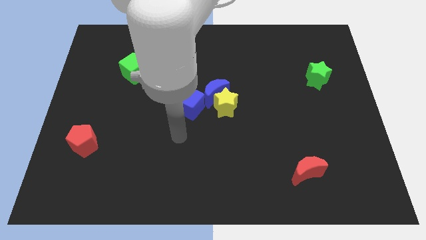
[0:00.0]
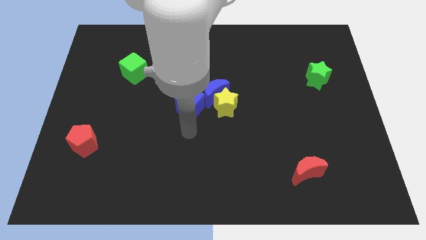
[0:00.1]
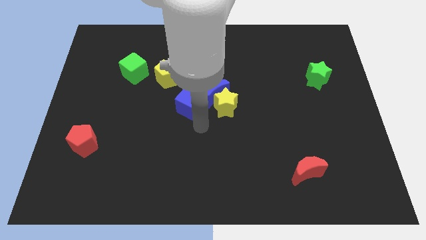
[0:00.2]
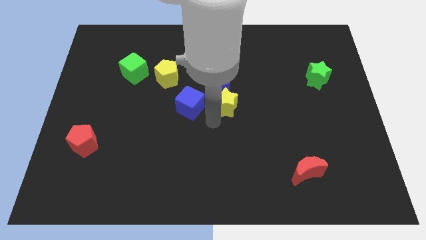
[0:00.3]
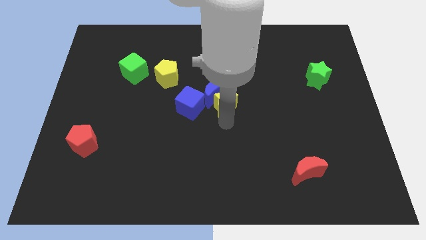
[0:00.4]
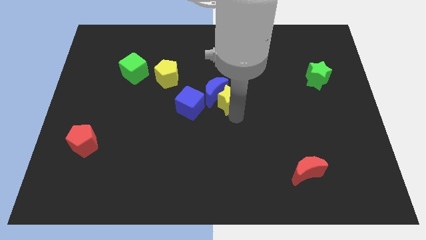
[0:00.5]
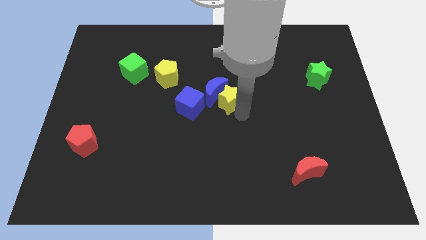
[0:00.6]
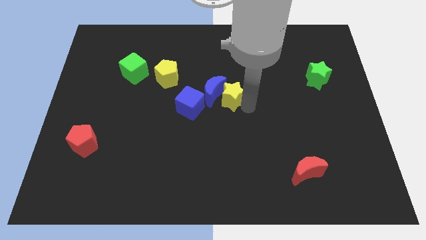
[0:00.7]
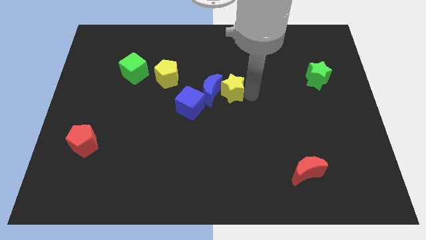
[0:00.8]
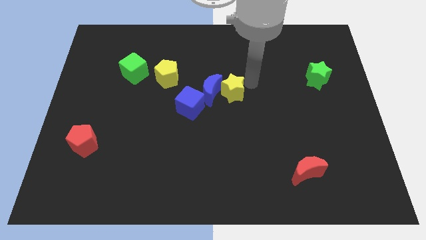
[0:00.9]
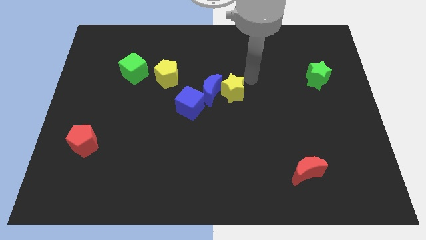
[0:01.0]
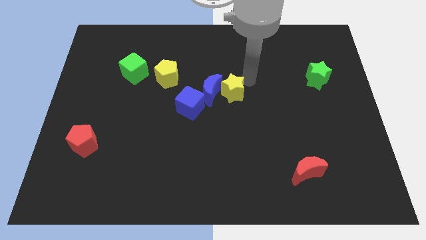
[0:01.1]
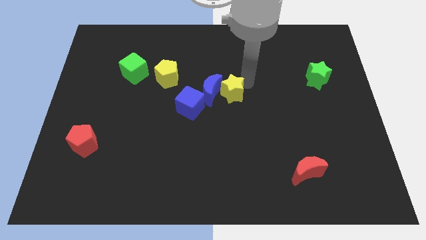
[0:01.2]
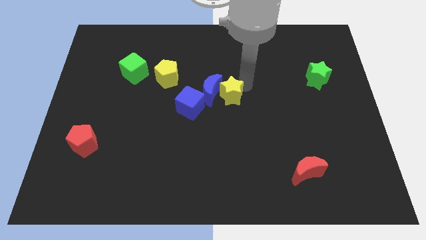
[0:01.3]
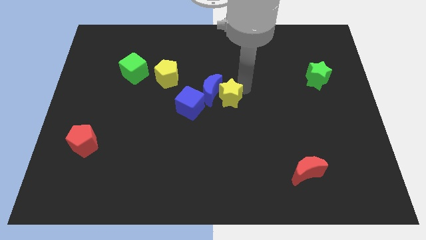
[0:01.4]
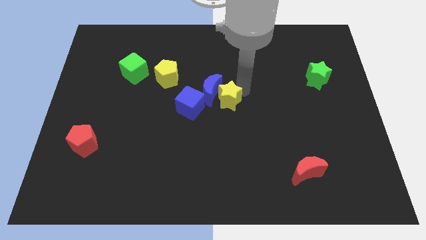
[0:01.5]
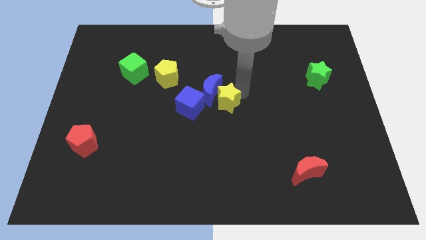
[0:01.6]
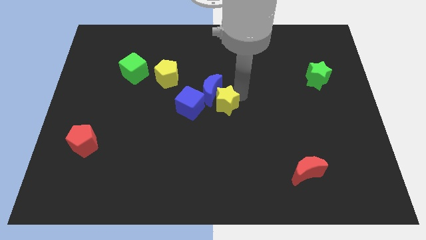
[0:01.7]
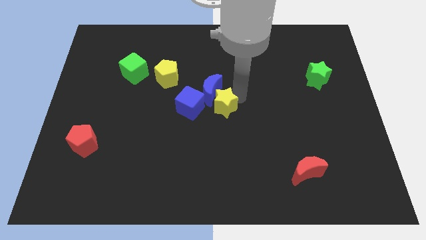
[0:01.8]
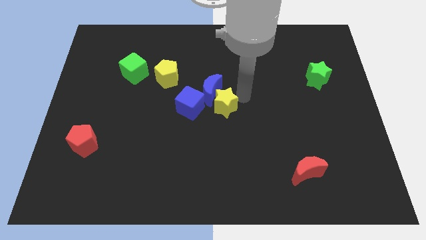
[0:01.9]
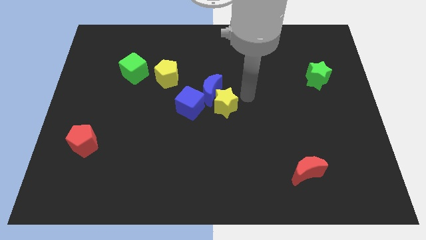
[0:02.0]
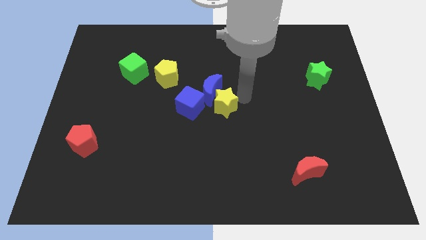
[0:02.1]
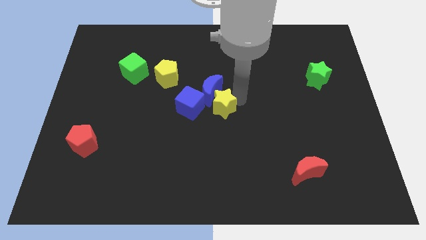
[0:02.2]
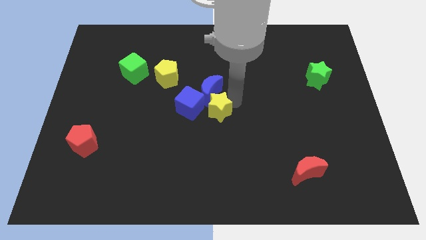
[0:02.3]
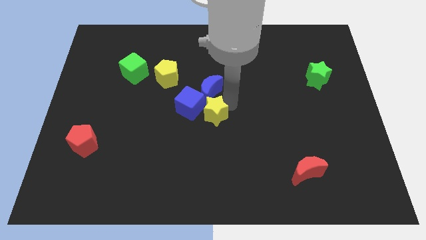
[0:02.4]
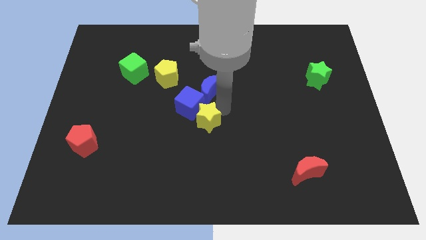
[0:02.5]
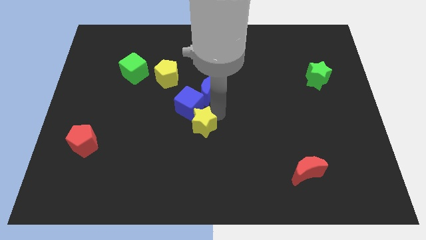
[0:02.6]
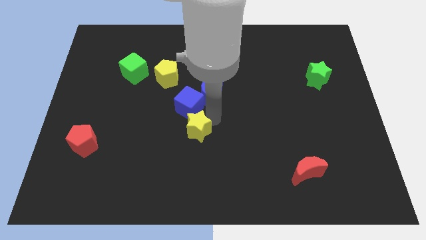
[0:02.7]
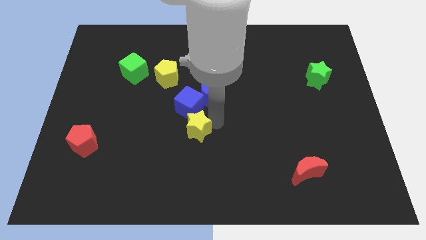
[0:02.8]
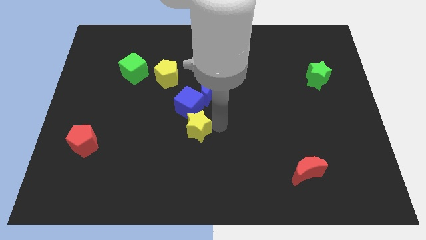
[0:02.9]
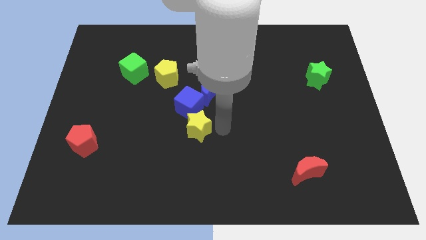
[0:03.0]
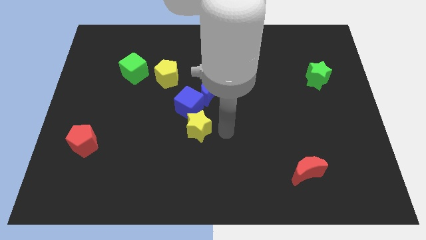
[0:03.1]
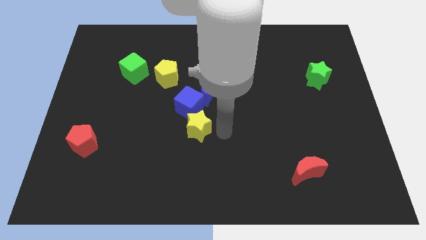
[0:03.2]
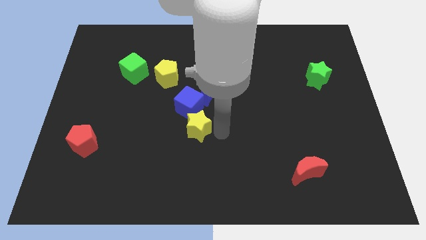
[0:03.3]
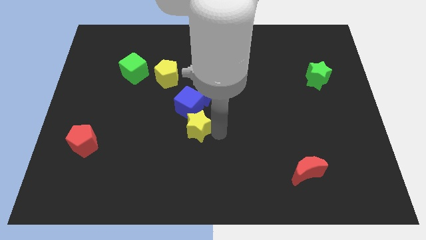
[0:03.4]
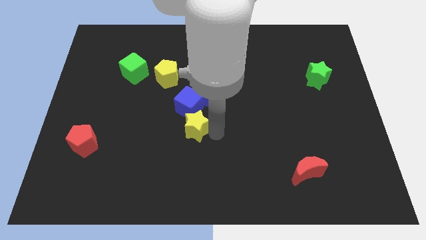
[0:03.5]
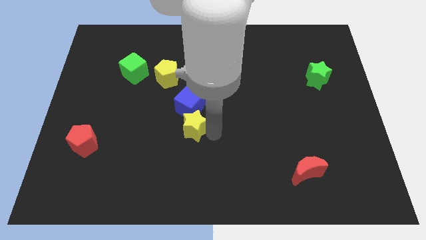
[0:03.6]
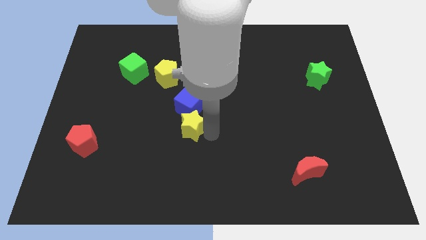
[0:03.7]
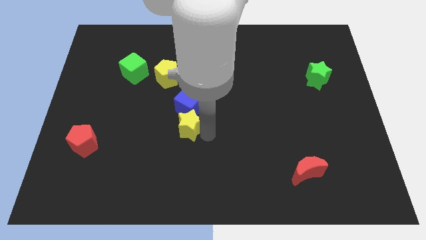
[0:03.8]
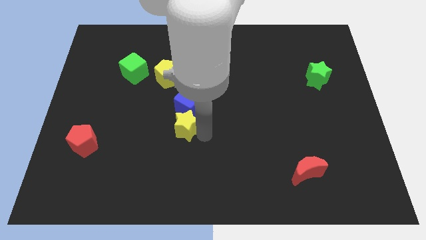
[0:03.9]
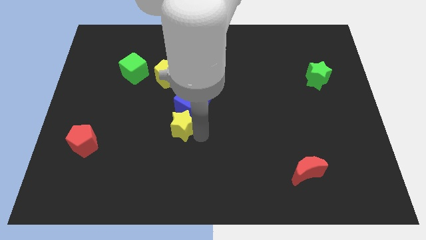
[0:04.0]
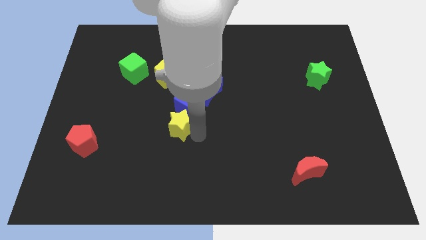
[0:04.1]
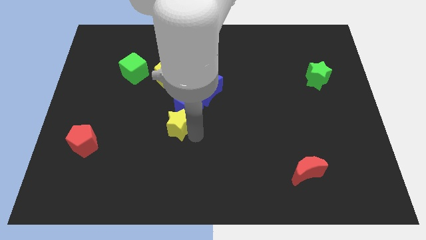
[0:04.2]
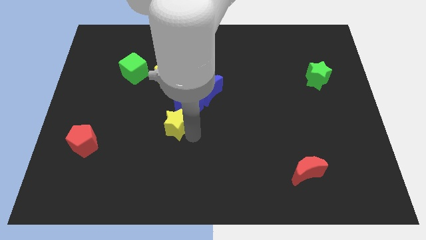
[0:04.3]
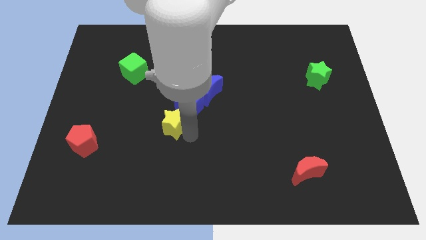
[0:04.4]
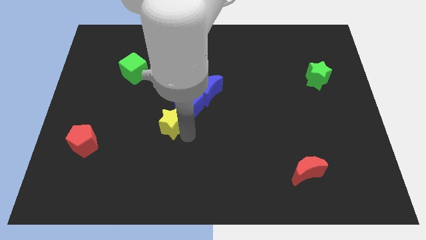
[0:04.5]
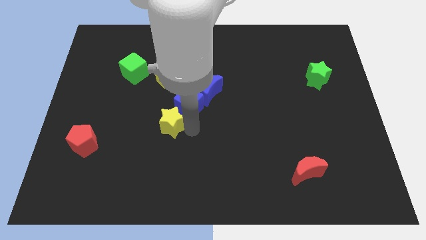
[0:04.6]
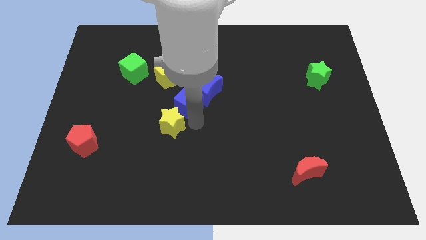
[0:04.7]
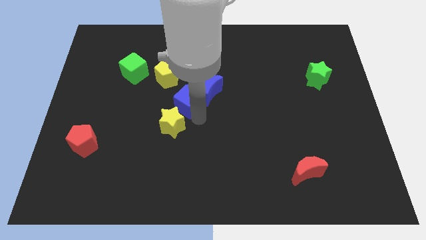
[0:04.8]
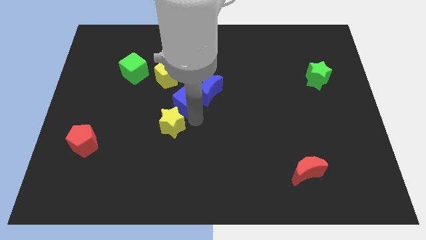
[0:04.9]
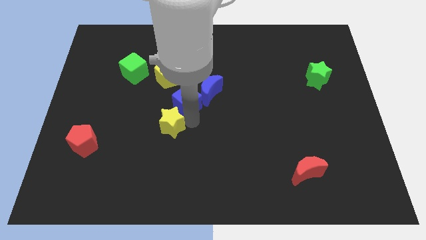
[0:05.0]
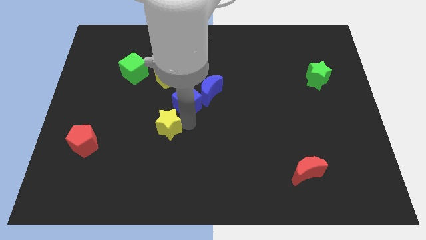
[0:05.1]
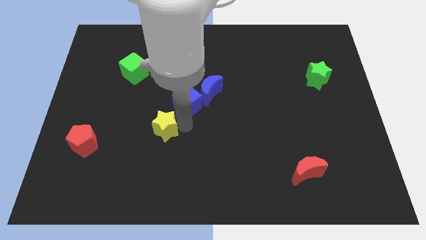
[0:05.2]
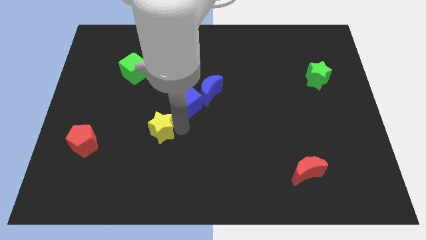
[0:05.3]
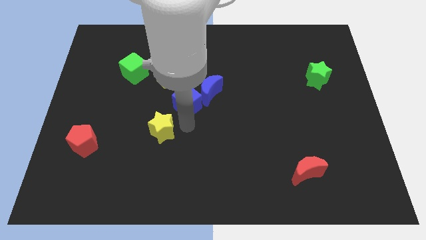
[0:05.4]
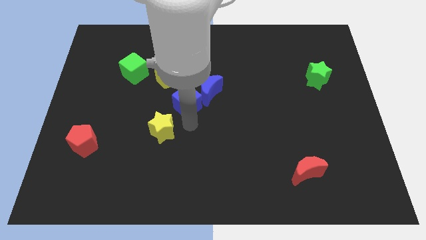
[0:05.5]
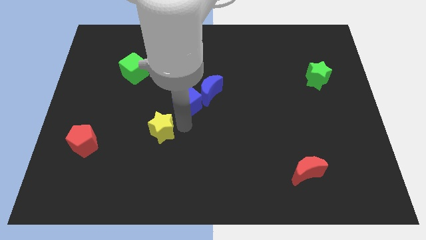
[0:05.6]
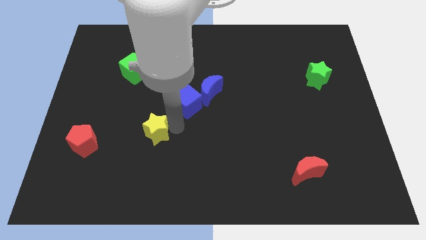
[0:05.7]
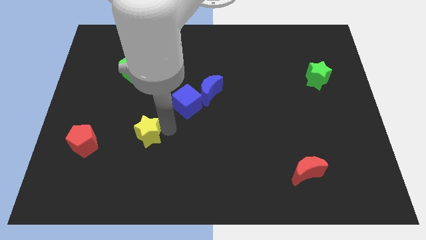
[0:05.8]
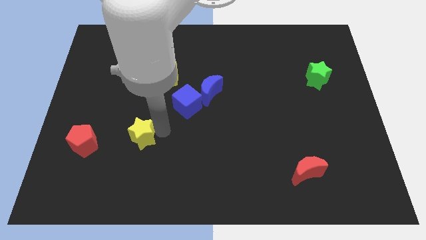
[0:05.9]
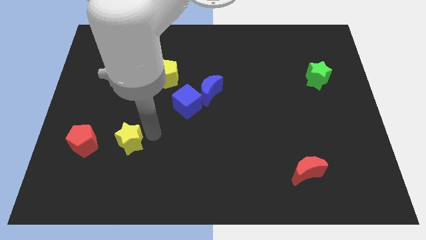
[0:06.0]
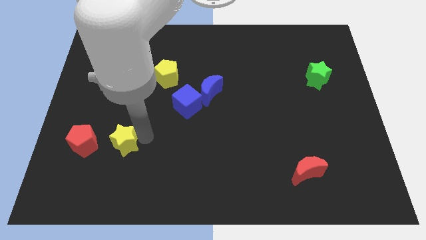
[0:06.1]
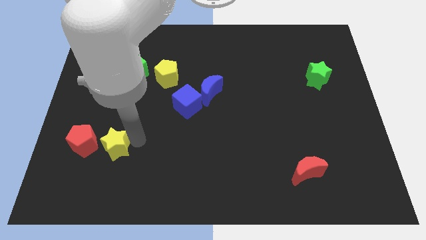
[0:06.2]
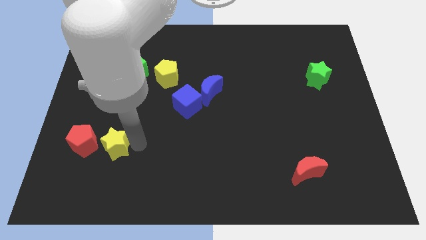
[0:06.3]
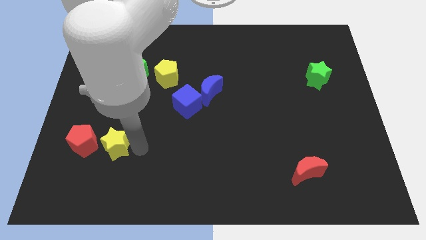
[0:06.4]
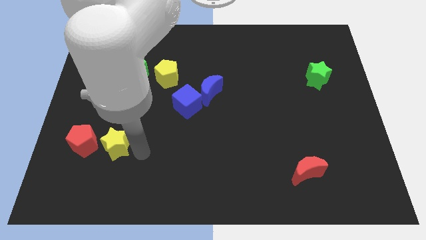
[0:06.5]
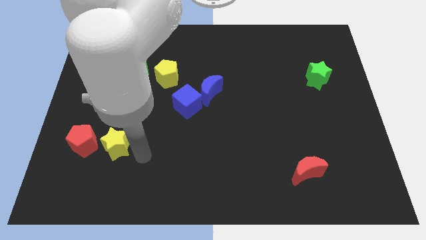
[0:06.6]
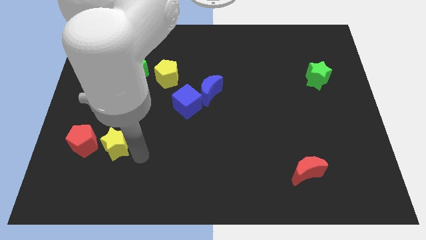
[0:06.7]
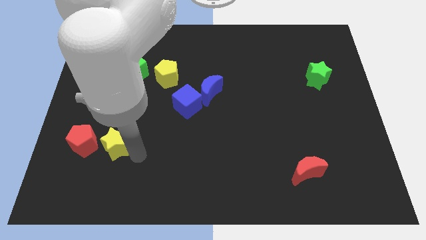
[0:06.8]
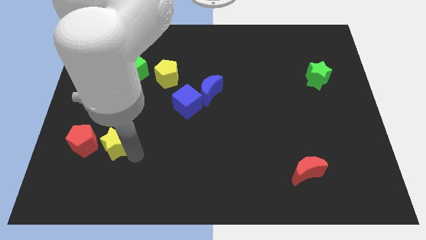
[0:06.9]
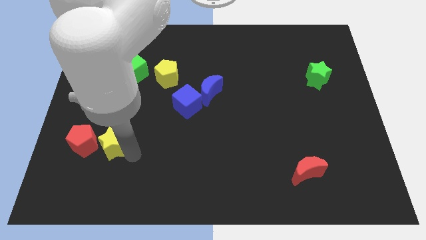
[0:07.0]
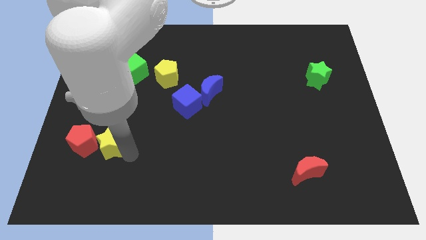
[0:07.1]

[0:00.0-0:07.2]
slide the yellow star to the red pentagon

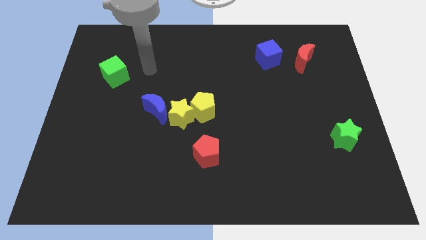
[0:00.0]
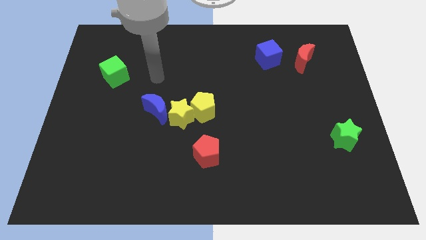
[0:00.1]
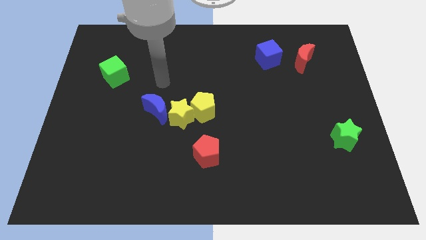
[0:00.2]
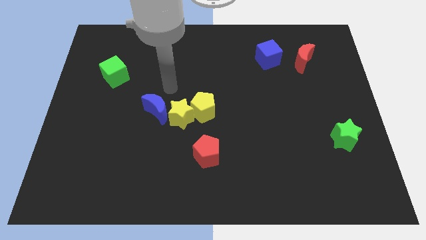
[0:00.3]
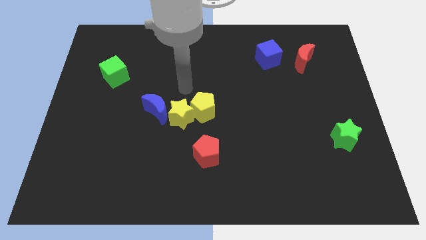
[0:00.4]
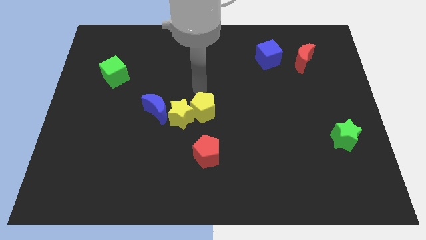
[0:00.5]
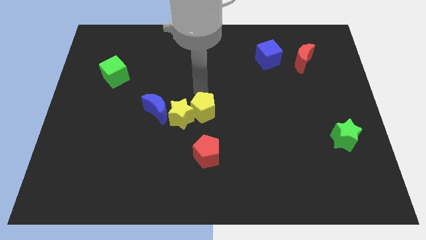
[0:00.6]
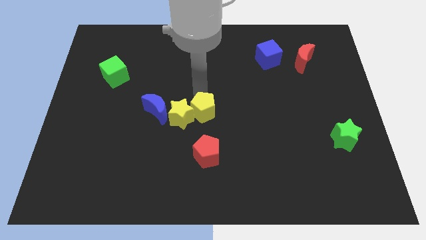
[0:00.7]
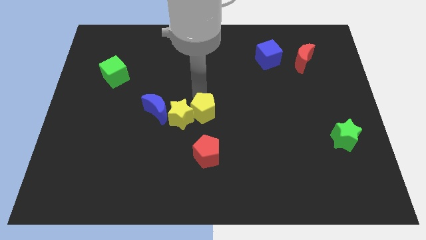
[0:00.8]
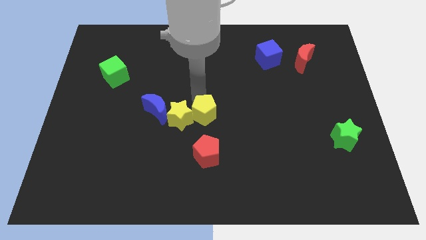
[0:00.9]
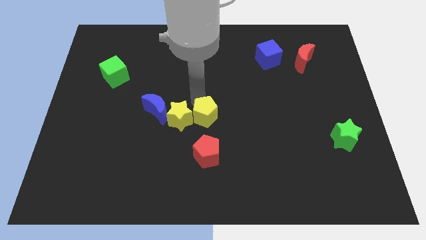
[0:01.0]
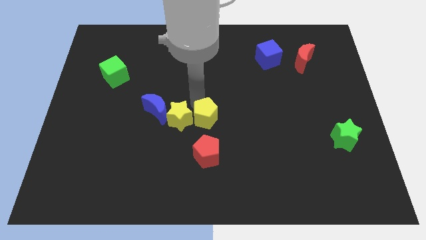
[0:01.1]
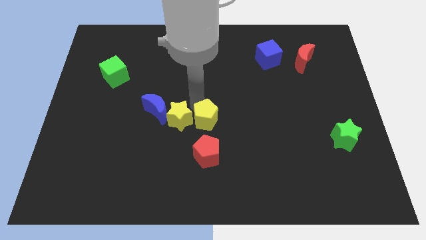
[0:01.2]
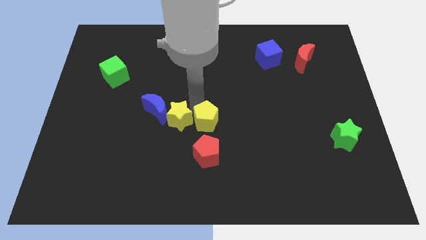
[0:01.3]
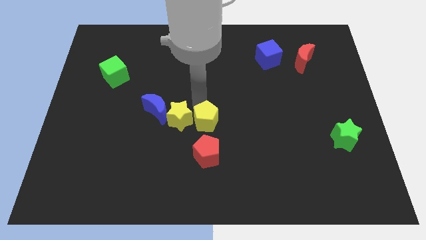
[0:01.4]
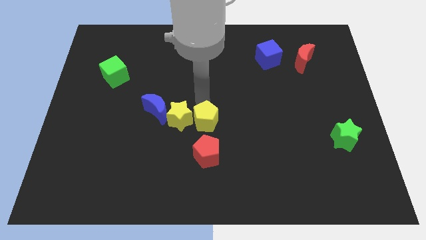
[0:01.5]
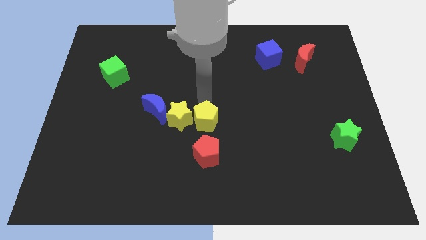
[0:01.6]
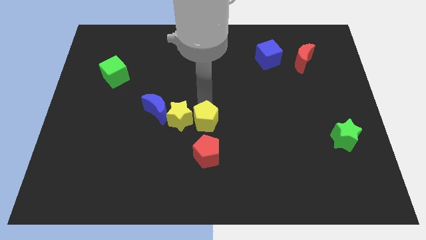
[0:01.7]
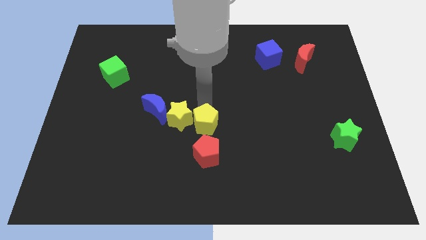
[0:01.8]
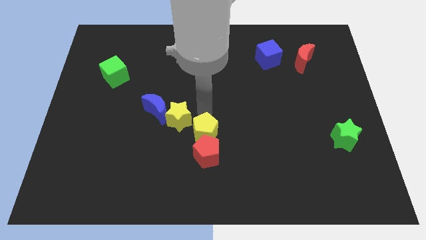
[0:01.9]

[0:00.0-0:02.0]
put the yellow pentagon next to the red pentagon
